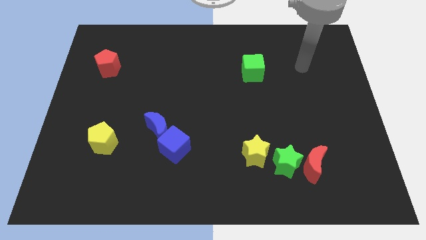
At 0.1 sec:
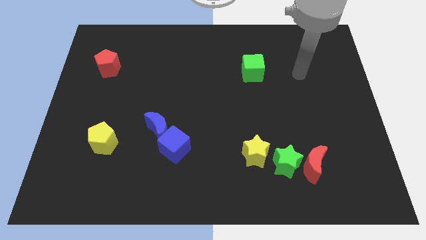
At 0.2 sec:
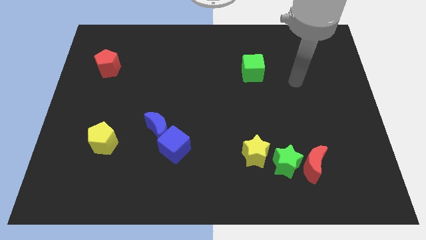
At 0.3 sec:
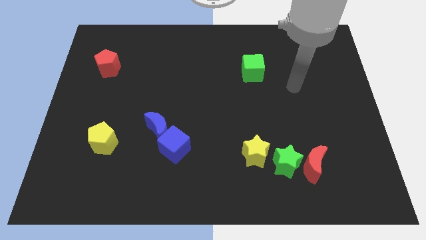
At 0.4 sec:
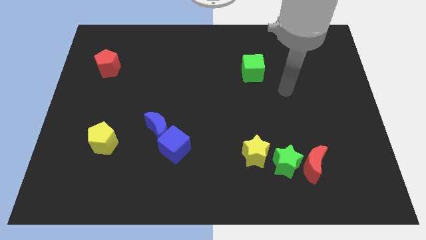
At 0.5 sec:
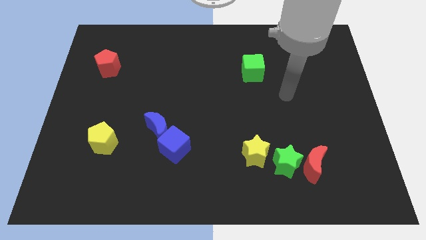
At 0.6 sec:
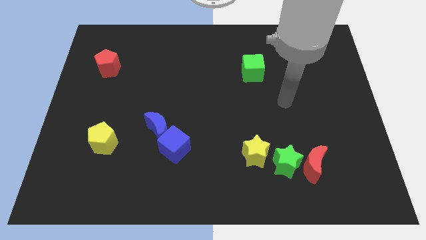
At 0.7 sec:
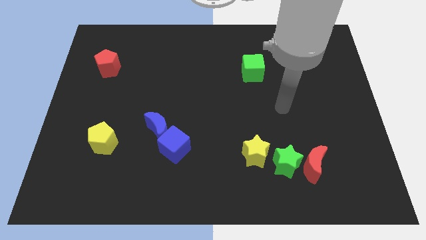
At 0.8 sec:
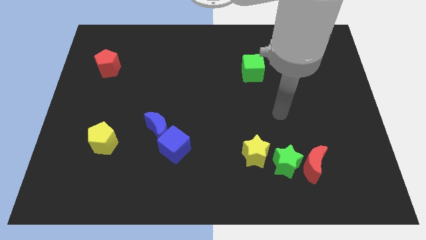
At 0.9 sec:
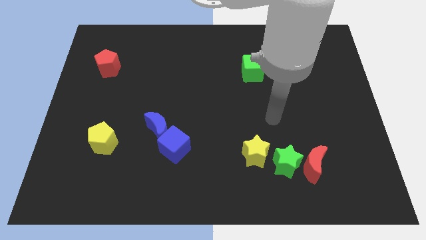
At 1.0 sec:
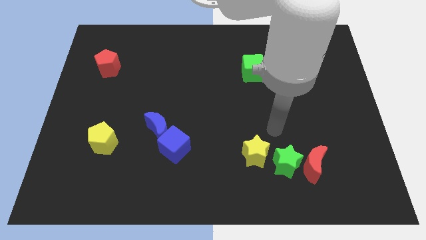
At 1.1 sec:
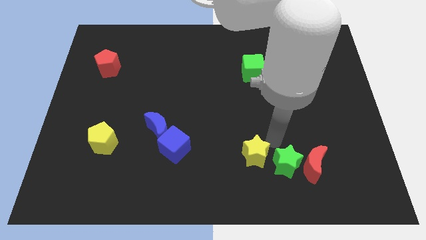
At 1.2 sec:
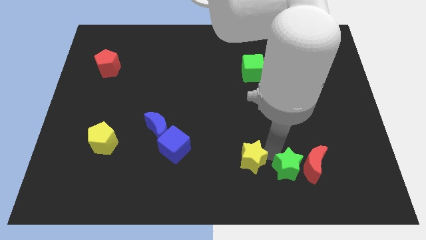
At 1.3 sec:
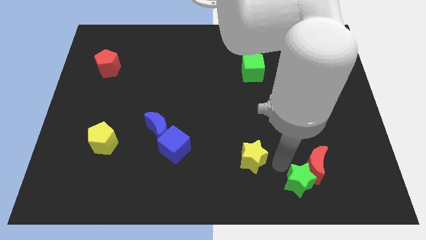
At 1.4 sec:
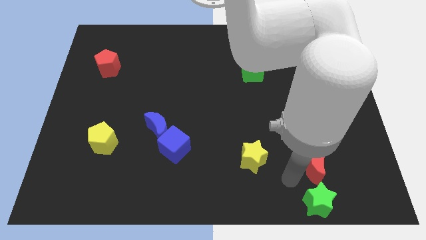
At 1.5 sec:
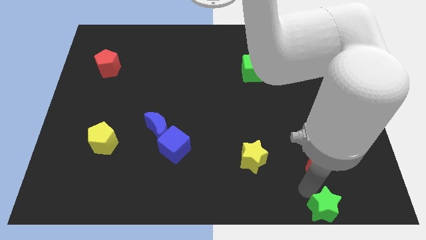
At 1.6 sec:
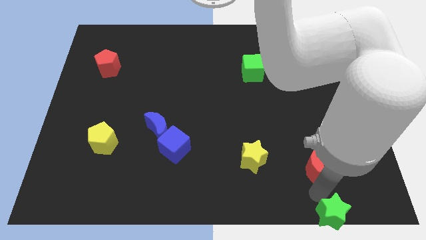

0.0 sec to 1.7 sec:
move the red moon away from the green star

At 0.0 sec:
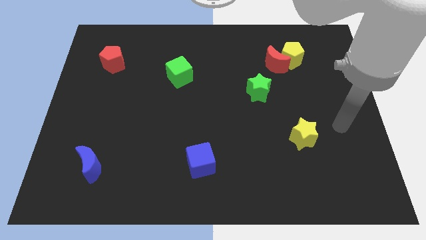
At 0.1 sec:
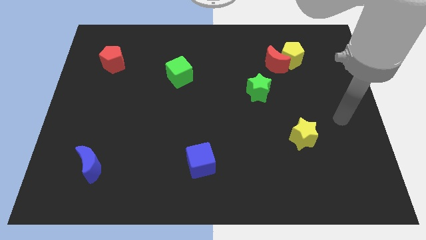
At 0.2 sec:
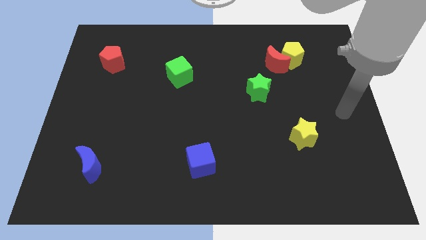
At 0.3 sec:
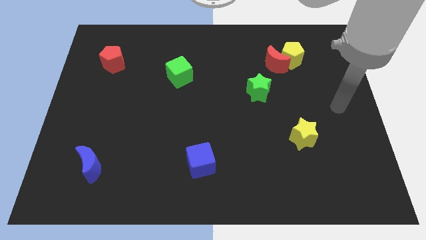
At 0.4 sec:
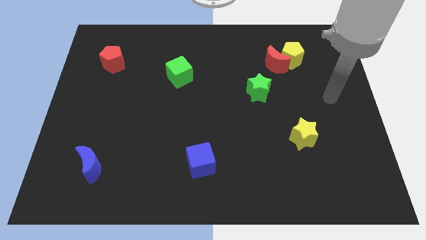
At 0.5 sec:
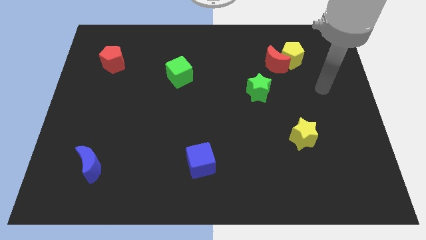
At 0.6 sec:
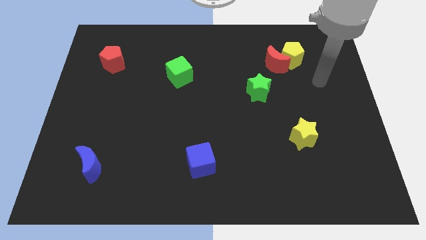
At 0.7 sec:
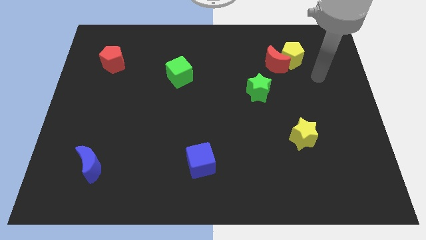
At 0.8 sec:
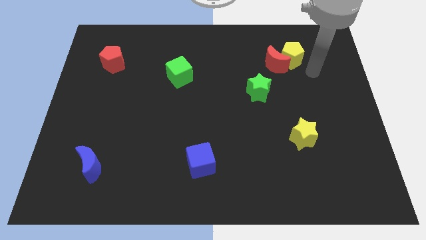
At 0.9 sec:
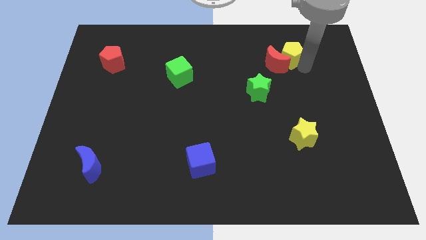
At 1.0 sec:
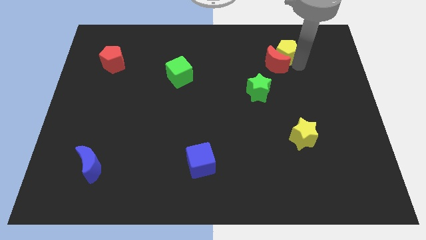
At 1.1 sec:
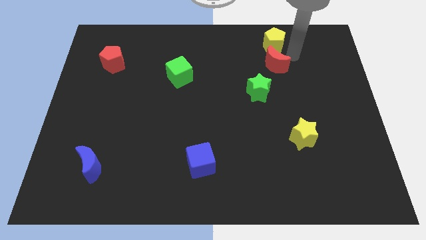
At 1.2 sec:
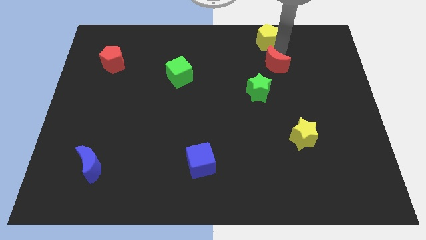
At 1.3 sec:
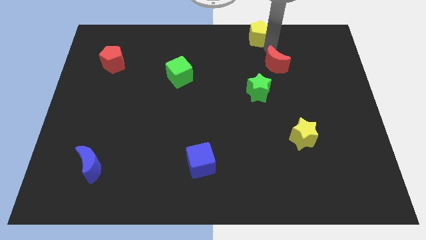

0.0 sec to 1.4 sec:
move the red moon away from the yellow pentagon

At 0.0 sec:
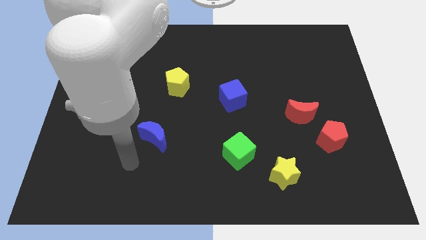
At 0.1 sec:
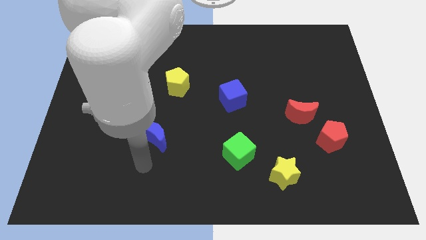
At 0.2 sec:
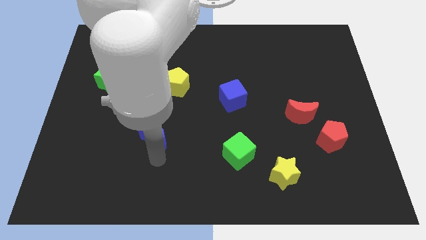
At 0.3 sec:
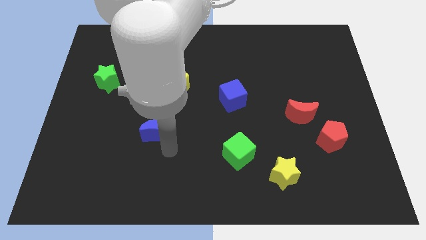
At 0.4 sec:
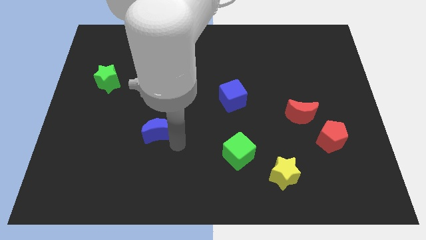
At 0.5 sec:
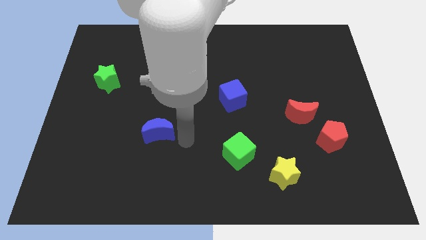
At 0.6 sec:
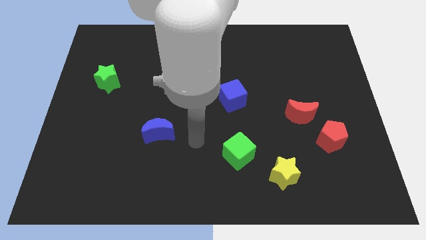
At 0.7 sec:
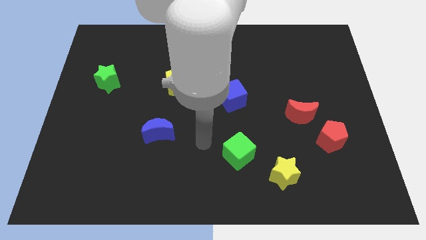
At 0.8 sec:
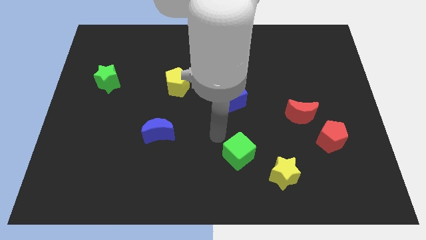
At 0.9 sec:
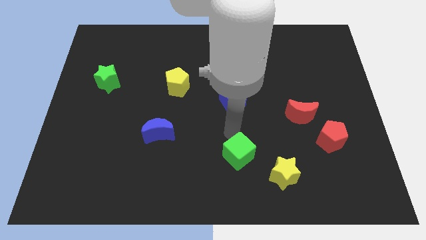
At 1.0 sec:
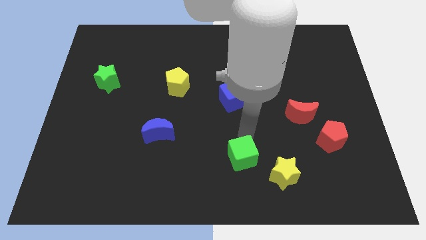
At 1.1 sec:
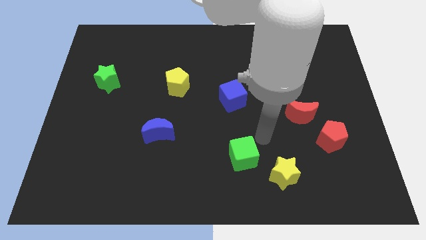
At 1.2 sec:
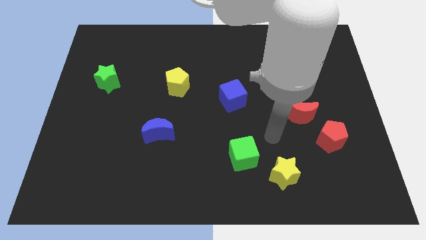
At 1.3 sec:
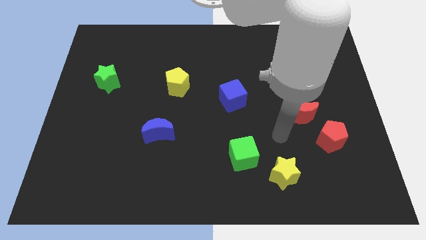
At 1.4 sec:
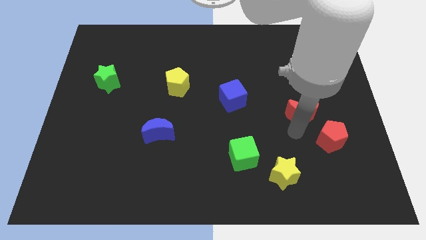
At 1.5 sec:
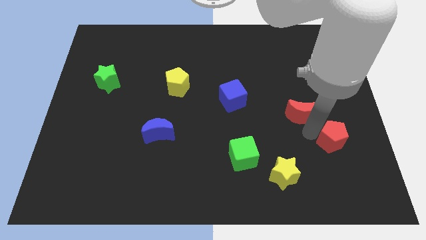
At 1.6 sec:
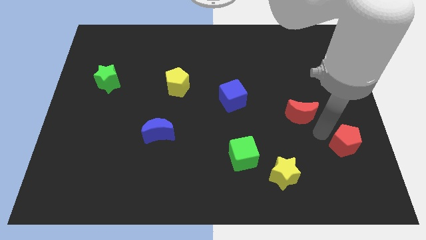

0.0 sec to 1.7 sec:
separate the red moon from the red pentagon

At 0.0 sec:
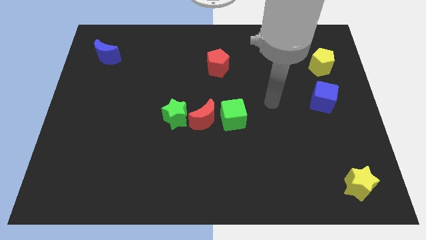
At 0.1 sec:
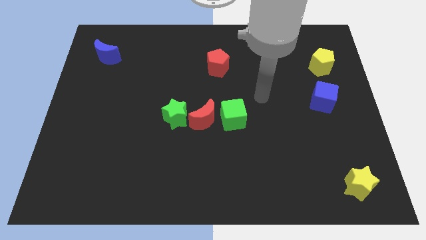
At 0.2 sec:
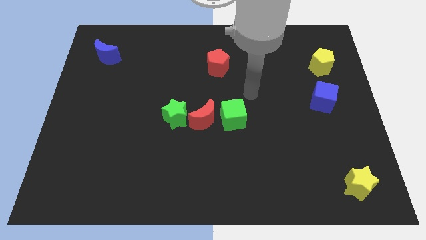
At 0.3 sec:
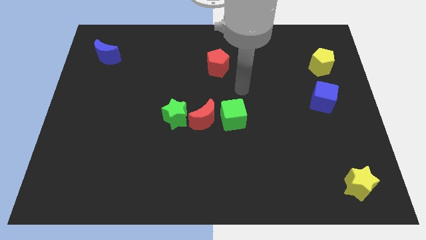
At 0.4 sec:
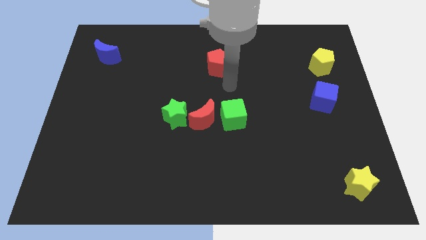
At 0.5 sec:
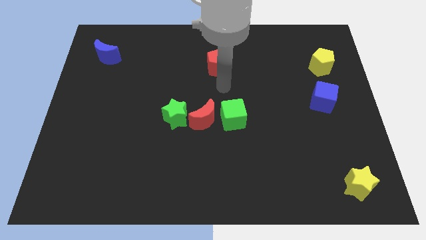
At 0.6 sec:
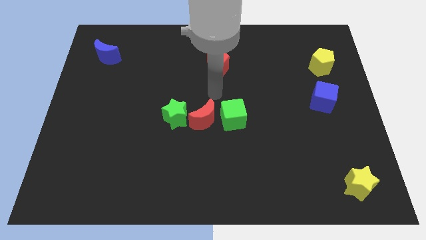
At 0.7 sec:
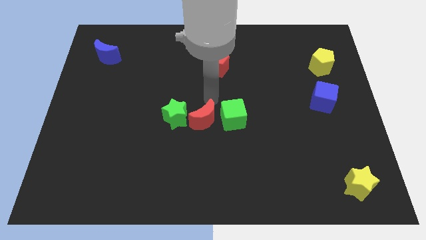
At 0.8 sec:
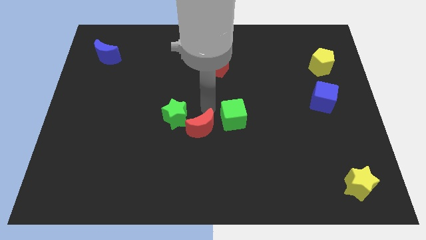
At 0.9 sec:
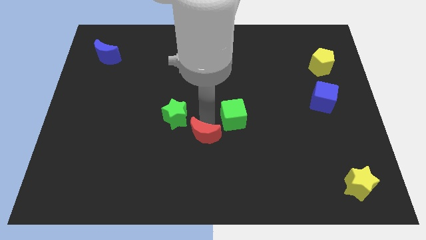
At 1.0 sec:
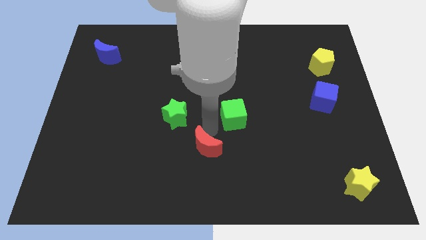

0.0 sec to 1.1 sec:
move the green cube away from the red moon

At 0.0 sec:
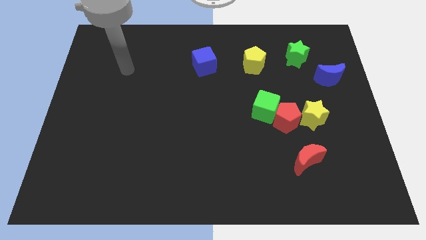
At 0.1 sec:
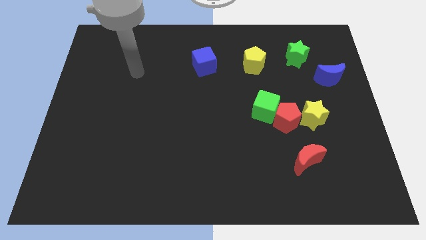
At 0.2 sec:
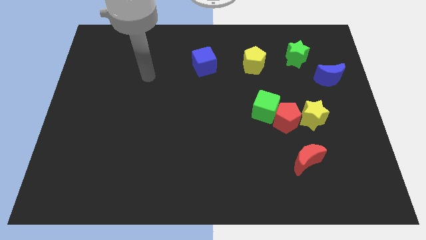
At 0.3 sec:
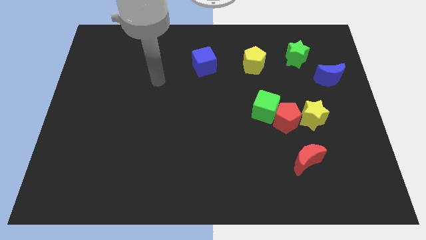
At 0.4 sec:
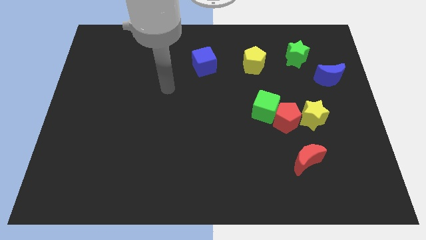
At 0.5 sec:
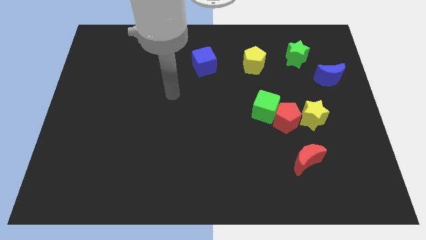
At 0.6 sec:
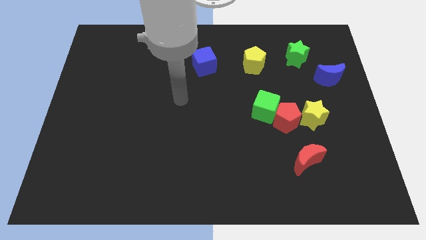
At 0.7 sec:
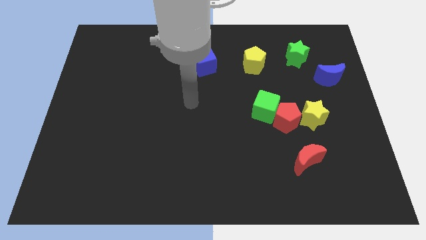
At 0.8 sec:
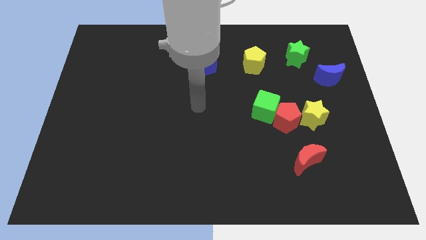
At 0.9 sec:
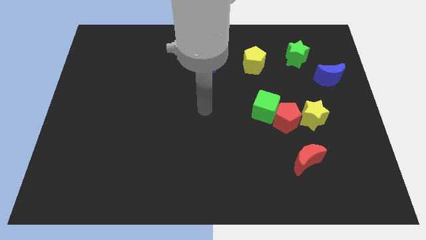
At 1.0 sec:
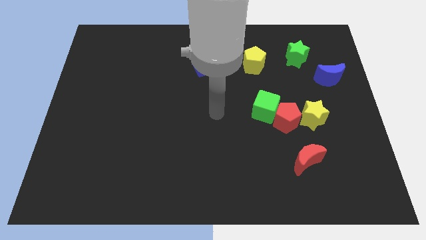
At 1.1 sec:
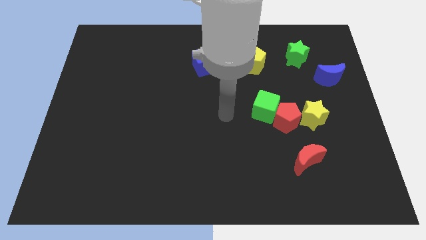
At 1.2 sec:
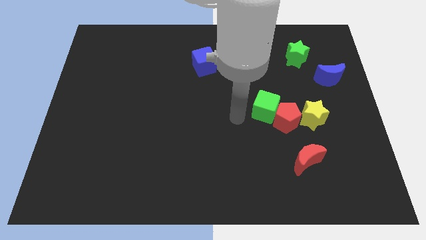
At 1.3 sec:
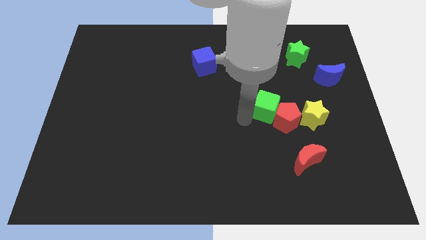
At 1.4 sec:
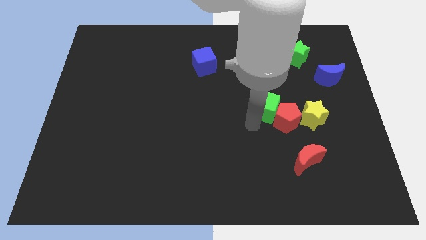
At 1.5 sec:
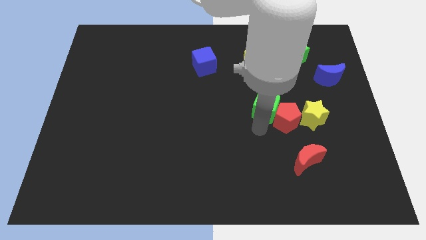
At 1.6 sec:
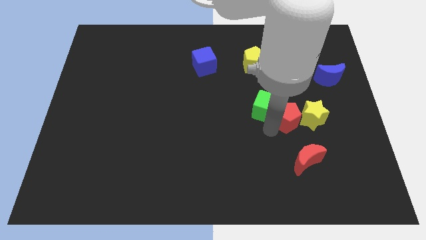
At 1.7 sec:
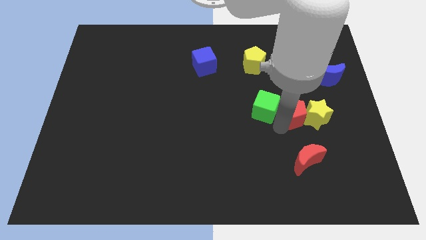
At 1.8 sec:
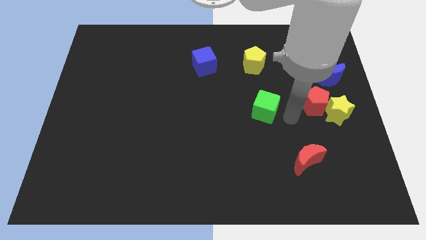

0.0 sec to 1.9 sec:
separate the green cube from the red pentagon

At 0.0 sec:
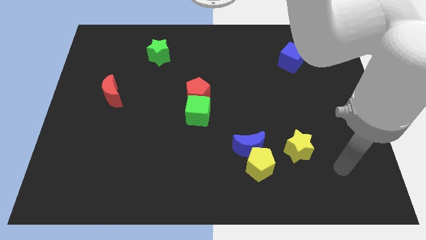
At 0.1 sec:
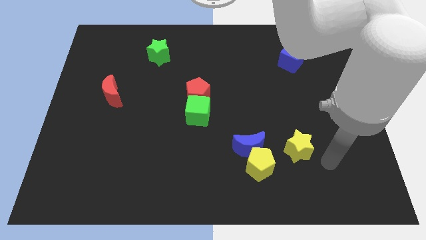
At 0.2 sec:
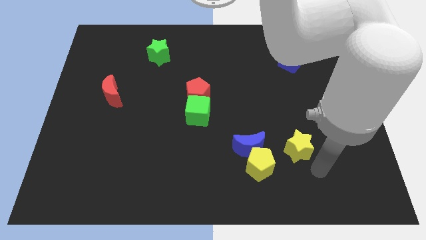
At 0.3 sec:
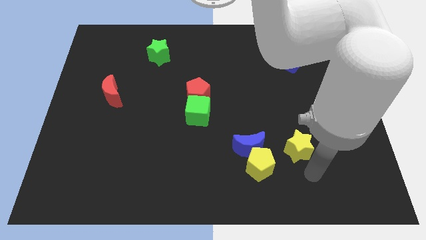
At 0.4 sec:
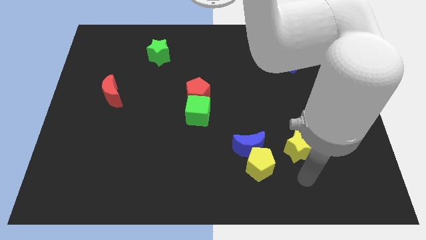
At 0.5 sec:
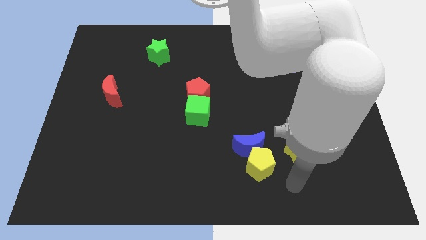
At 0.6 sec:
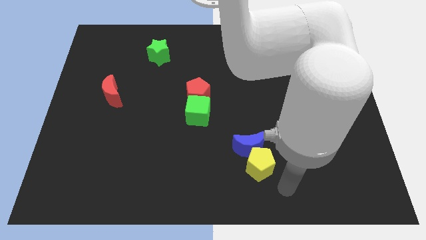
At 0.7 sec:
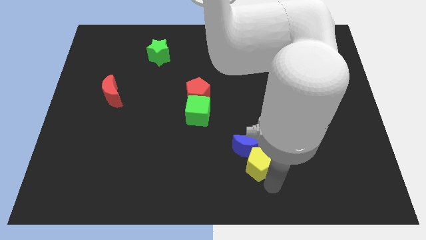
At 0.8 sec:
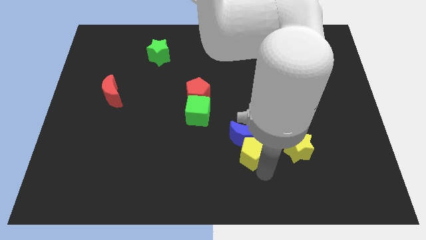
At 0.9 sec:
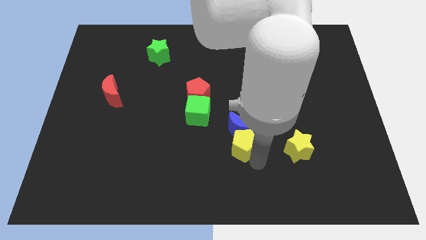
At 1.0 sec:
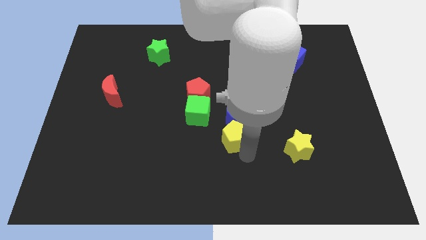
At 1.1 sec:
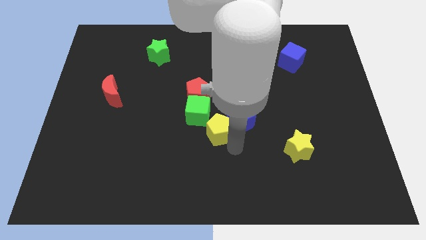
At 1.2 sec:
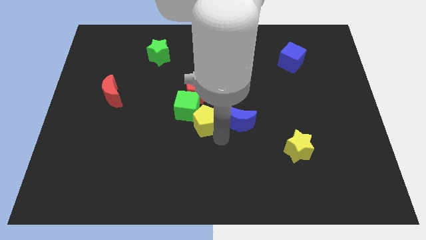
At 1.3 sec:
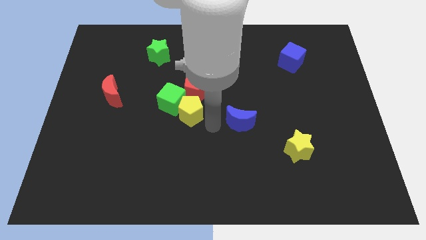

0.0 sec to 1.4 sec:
pull the blue moon apart from the yellow pentagon

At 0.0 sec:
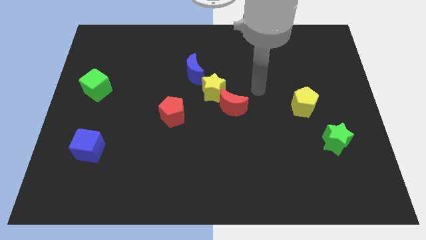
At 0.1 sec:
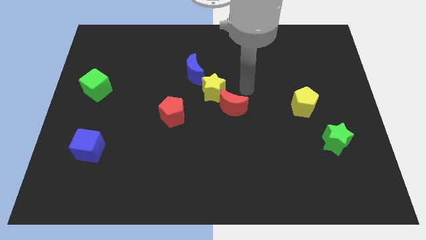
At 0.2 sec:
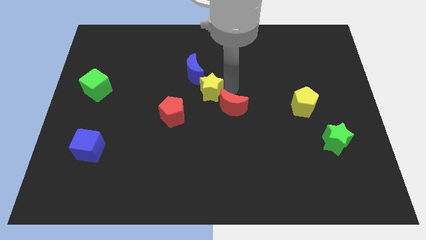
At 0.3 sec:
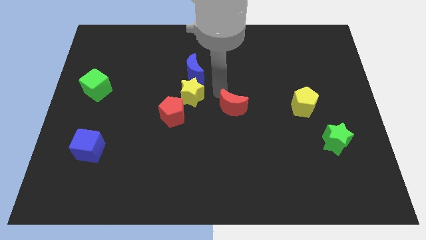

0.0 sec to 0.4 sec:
separate the red moon from the yellow star
